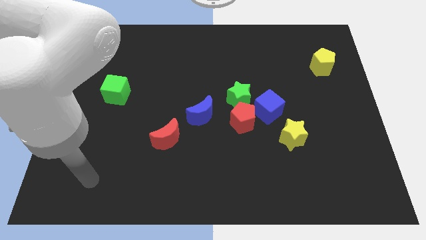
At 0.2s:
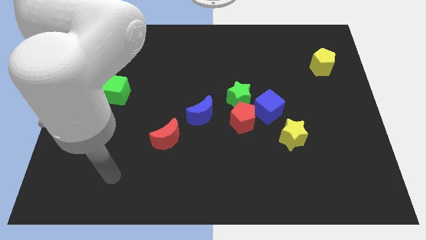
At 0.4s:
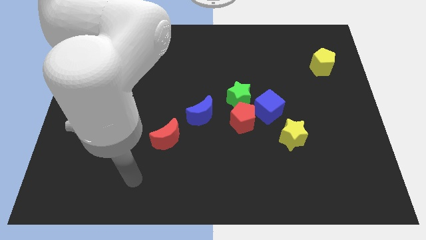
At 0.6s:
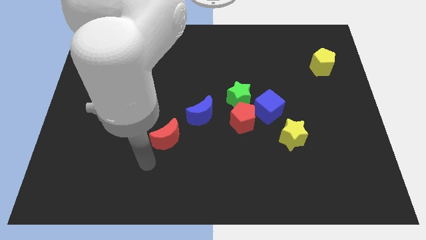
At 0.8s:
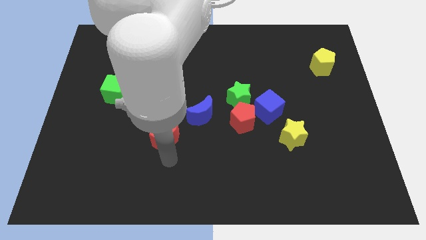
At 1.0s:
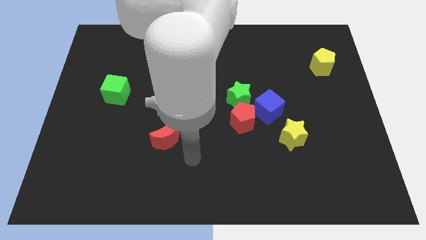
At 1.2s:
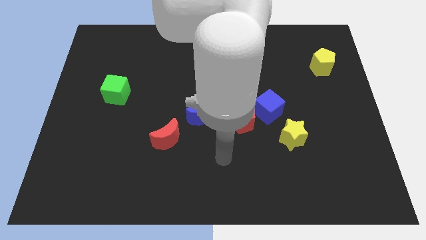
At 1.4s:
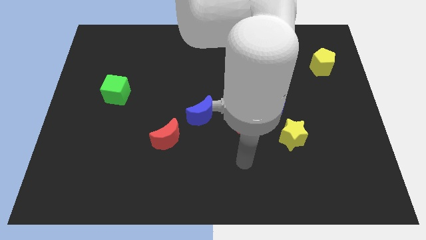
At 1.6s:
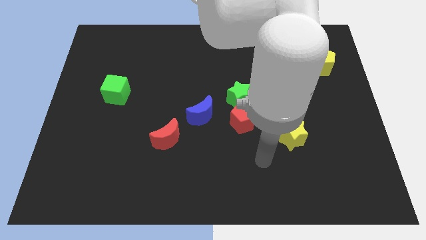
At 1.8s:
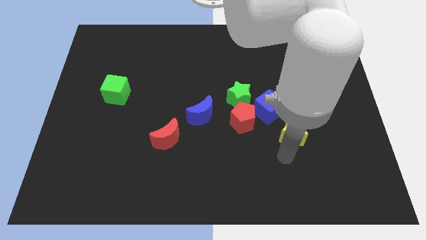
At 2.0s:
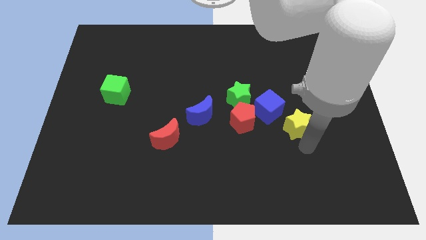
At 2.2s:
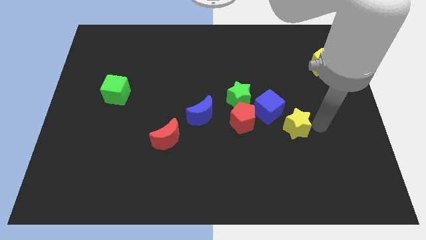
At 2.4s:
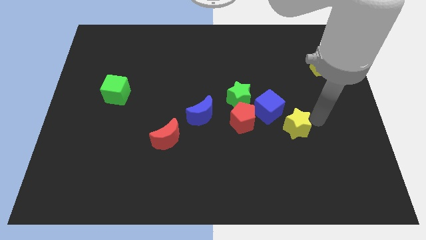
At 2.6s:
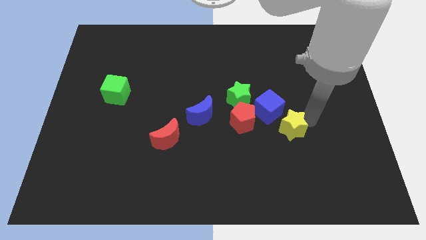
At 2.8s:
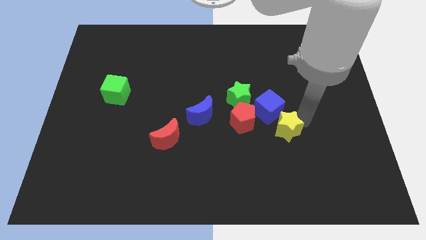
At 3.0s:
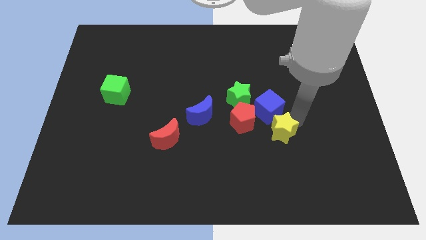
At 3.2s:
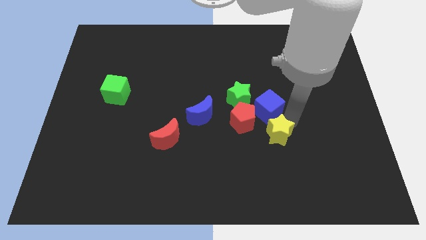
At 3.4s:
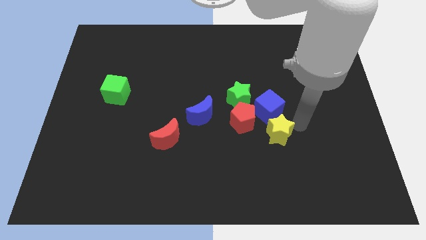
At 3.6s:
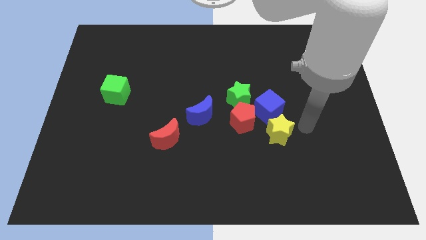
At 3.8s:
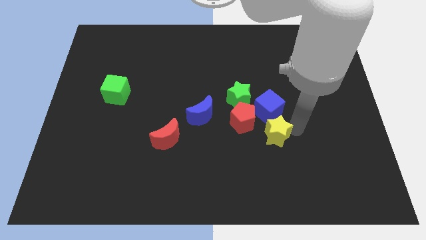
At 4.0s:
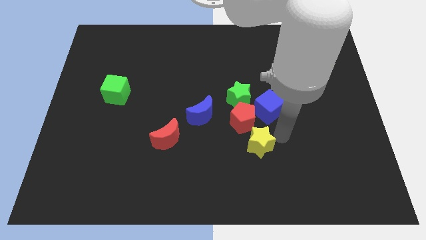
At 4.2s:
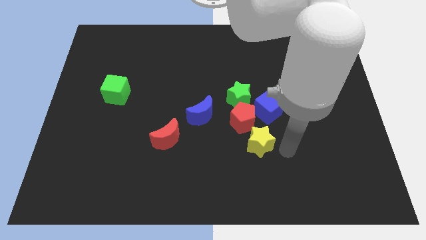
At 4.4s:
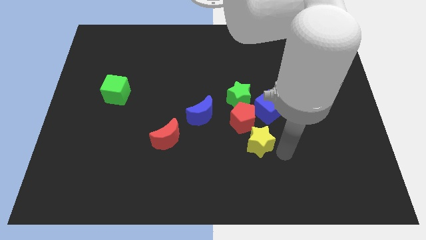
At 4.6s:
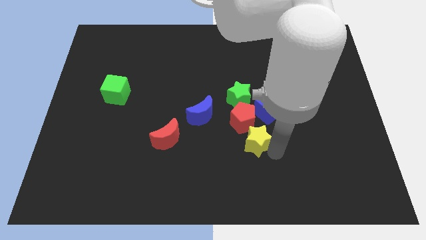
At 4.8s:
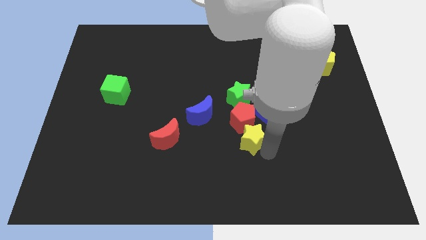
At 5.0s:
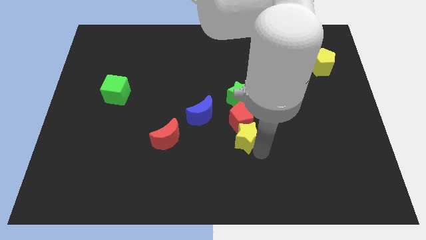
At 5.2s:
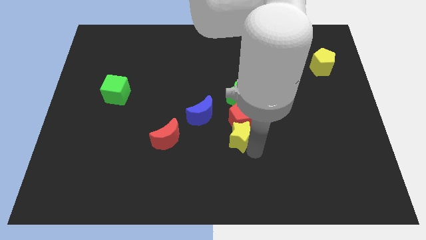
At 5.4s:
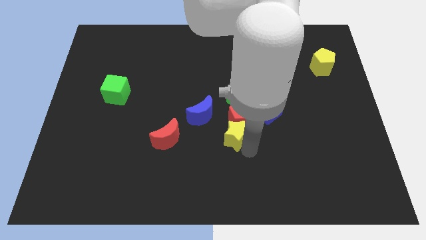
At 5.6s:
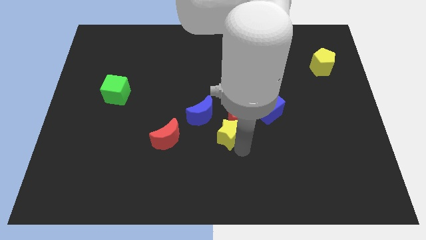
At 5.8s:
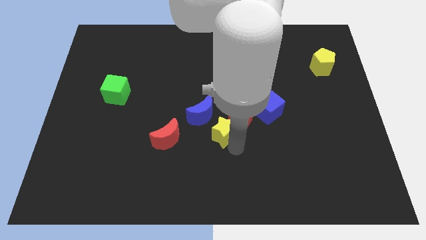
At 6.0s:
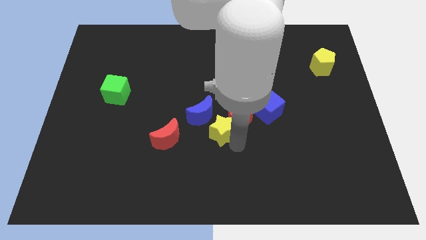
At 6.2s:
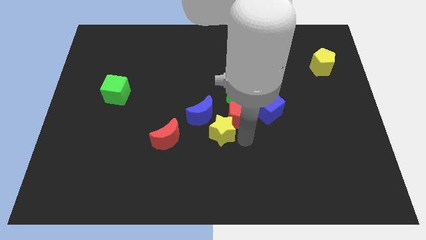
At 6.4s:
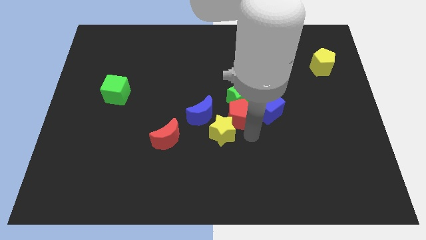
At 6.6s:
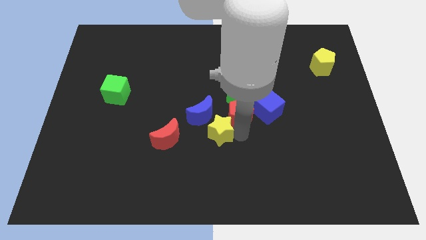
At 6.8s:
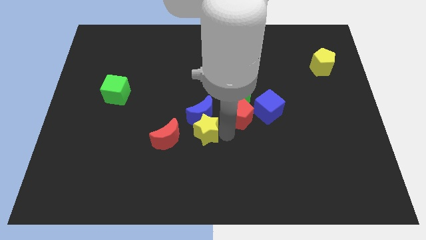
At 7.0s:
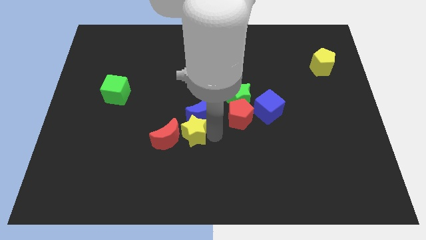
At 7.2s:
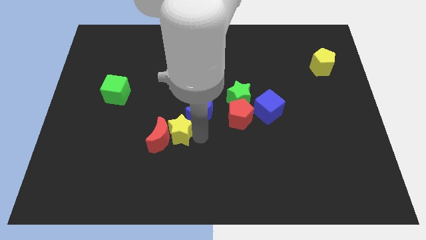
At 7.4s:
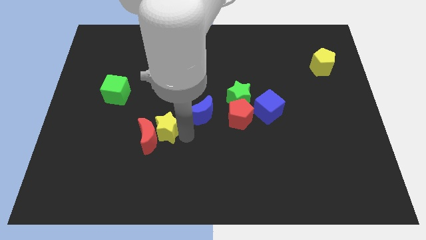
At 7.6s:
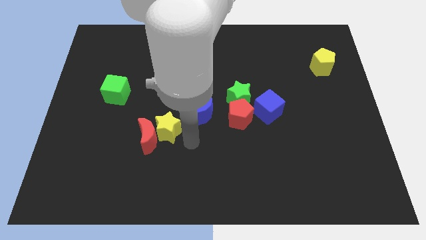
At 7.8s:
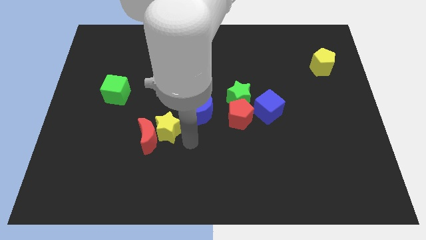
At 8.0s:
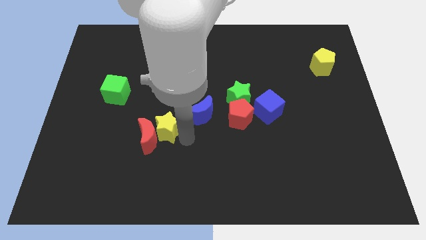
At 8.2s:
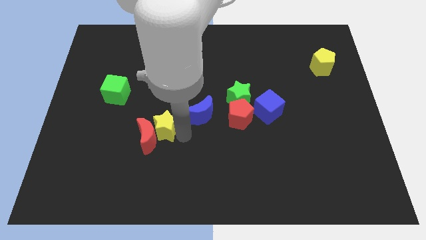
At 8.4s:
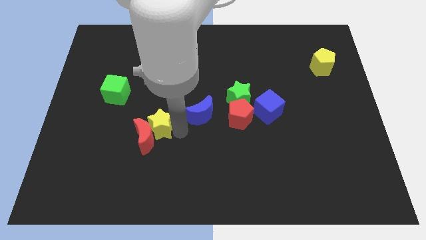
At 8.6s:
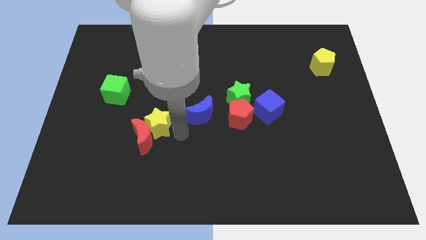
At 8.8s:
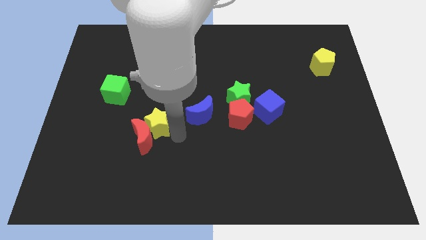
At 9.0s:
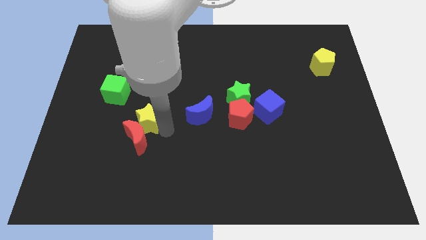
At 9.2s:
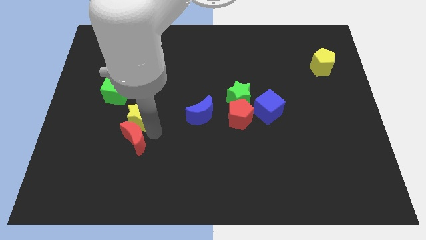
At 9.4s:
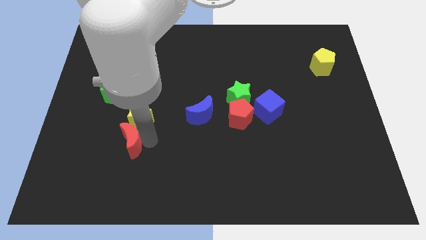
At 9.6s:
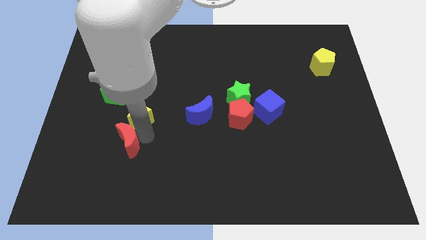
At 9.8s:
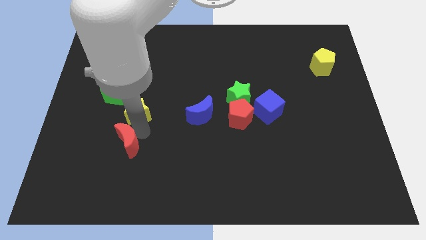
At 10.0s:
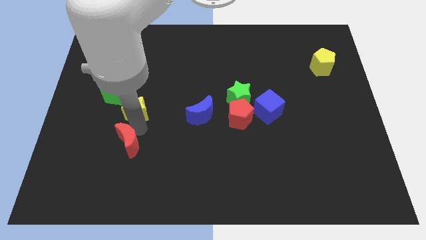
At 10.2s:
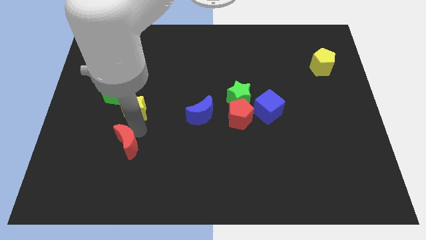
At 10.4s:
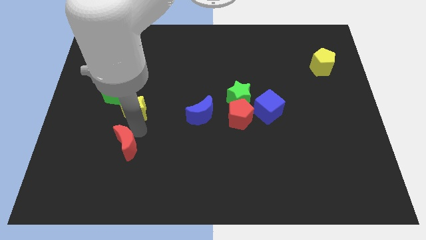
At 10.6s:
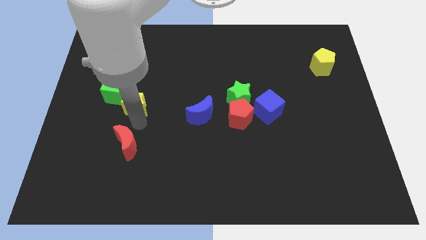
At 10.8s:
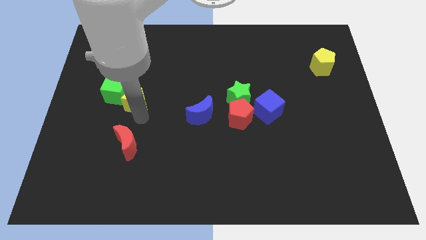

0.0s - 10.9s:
slide the yellow star to the green cube

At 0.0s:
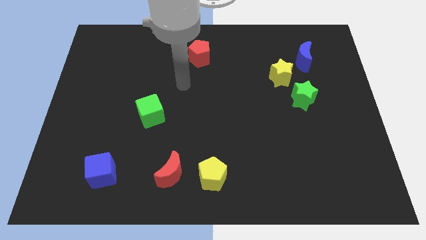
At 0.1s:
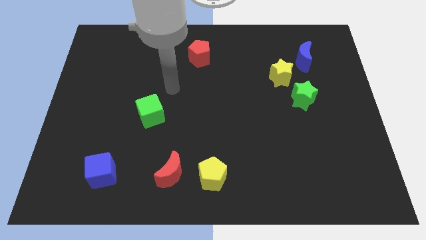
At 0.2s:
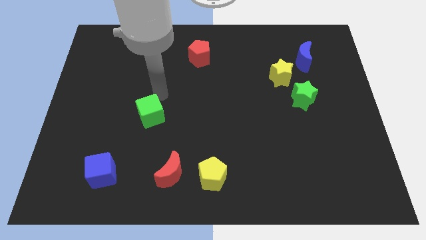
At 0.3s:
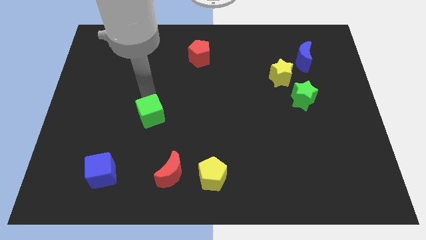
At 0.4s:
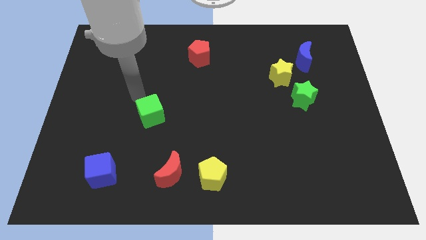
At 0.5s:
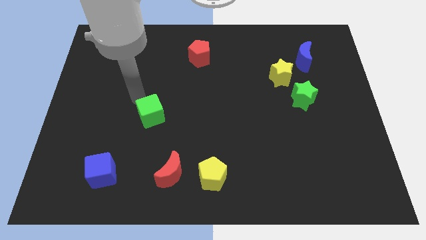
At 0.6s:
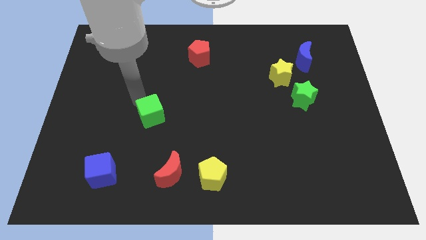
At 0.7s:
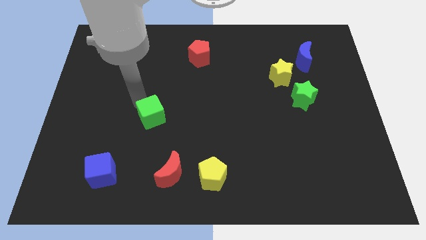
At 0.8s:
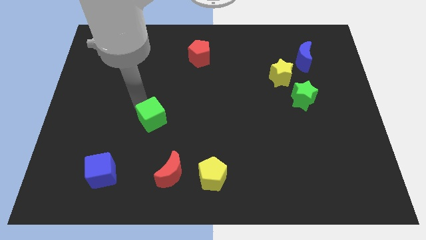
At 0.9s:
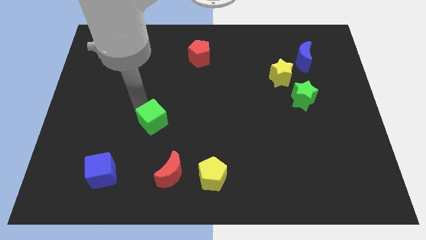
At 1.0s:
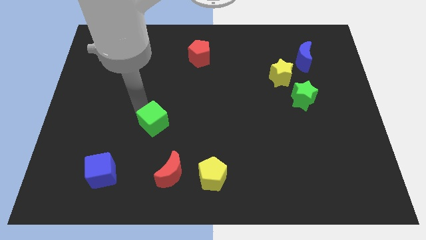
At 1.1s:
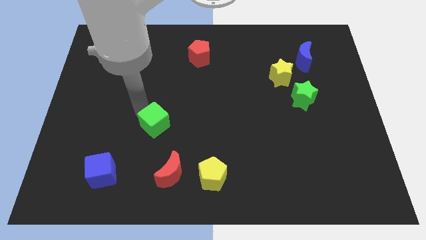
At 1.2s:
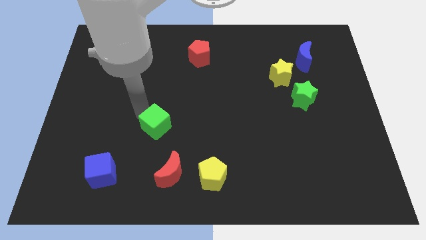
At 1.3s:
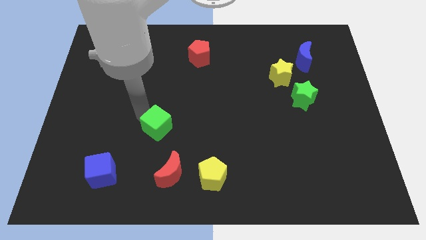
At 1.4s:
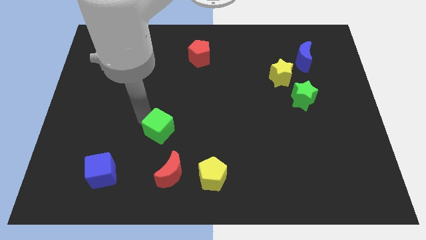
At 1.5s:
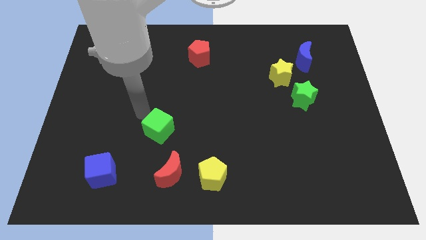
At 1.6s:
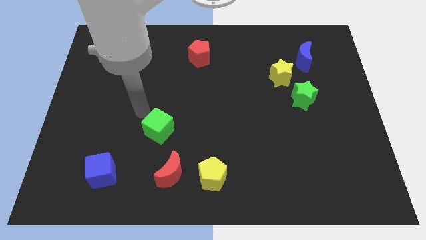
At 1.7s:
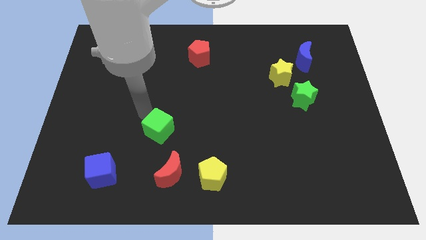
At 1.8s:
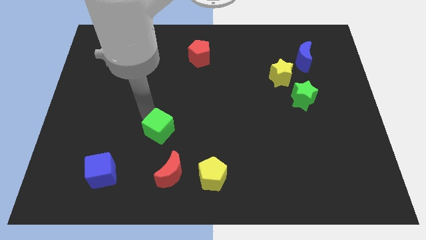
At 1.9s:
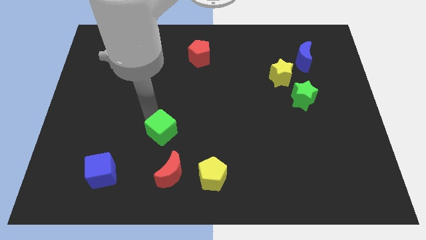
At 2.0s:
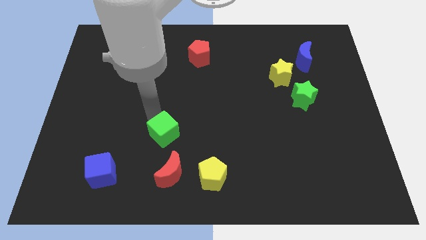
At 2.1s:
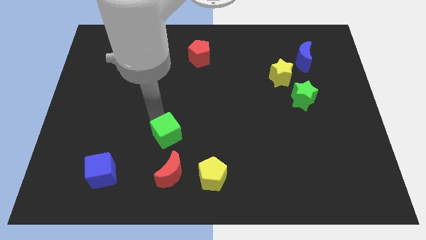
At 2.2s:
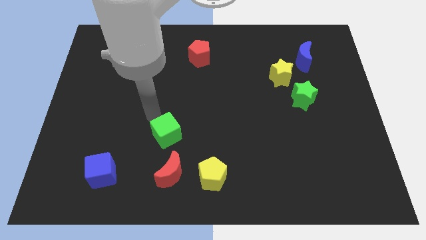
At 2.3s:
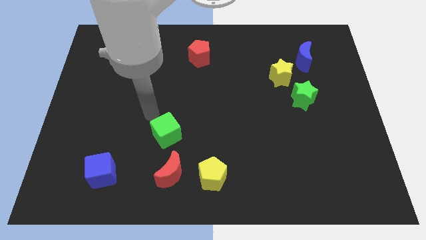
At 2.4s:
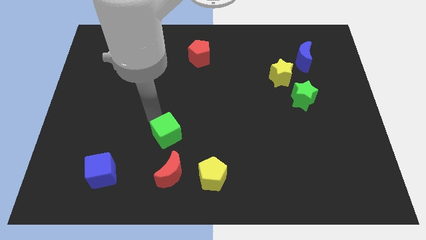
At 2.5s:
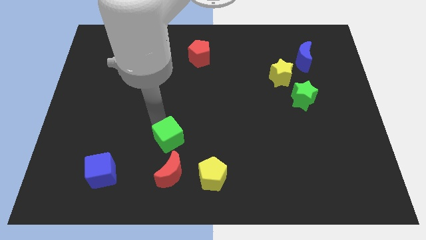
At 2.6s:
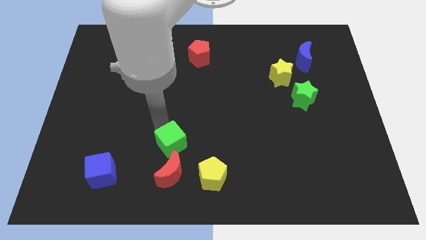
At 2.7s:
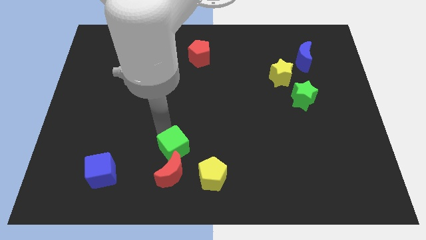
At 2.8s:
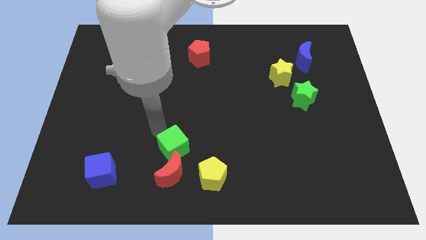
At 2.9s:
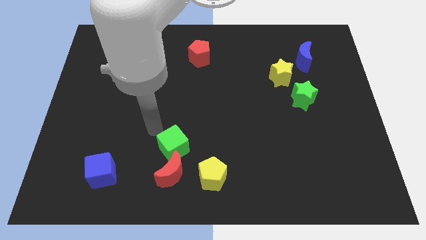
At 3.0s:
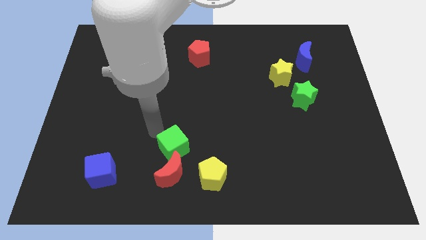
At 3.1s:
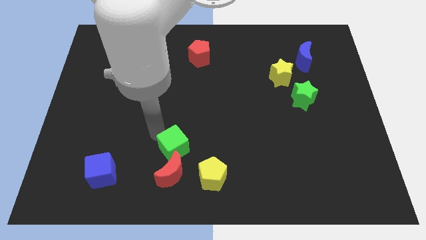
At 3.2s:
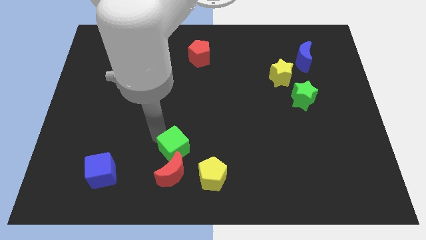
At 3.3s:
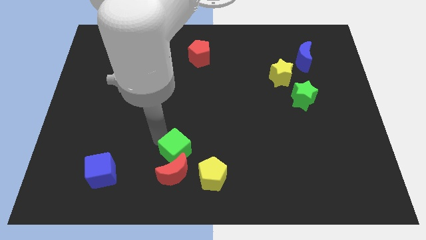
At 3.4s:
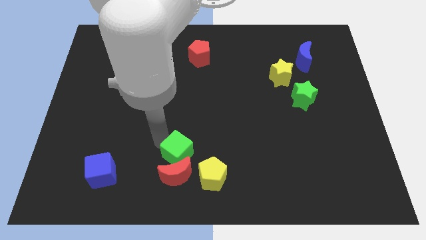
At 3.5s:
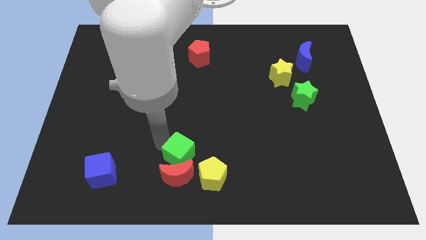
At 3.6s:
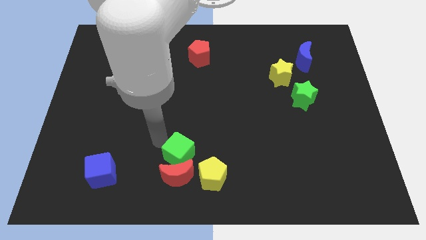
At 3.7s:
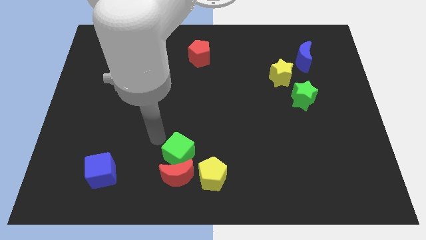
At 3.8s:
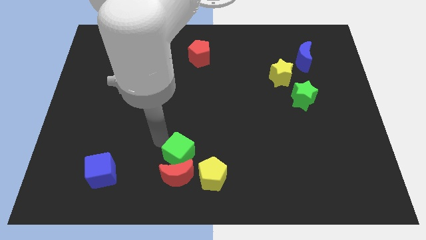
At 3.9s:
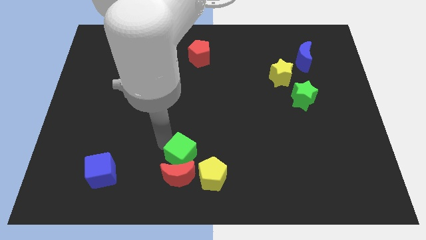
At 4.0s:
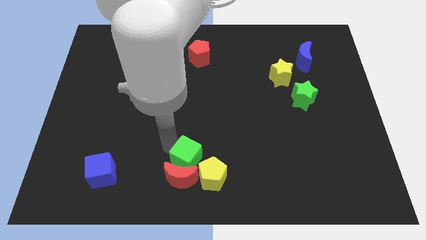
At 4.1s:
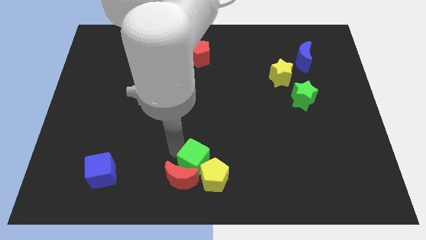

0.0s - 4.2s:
move the green cube to the yellow pentagon
